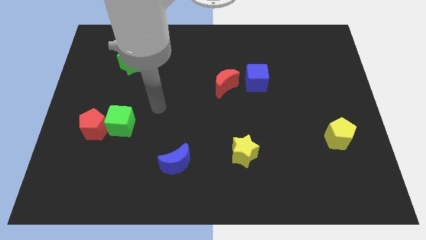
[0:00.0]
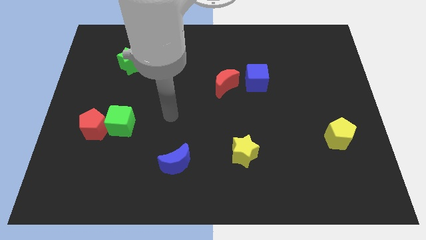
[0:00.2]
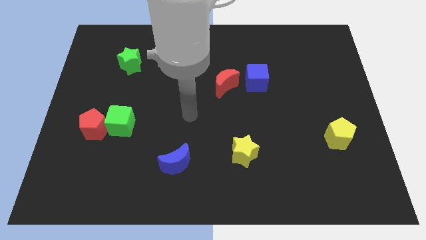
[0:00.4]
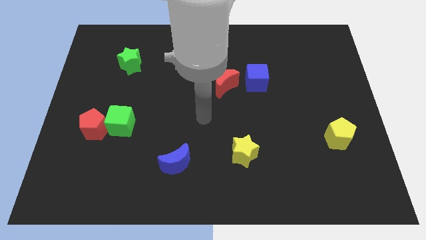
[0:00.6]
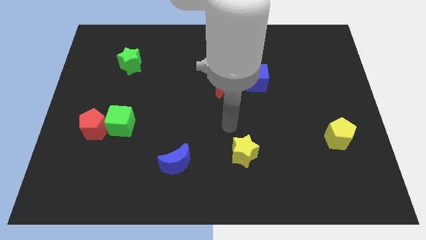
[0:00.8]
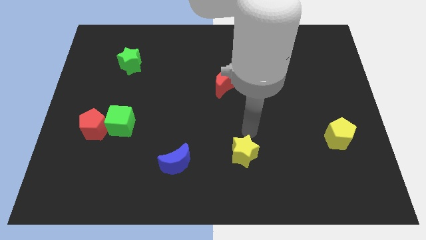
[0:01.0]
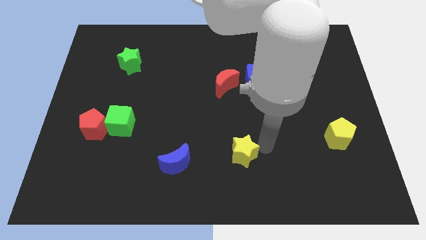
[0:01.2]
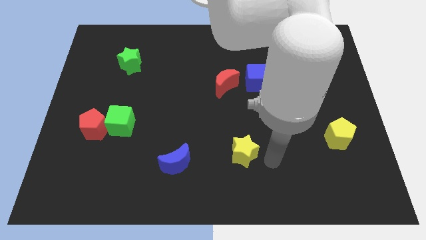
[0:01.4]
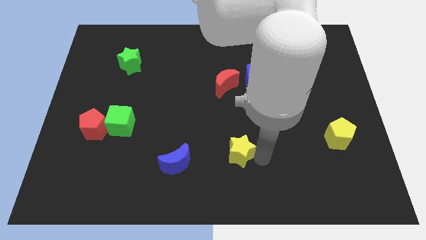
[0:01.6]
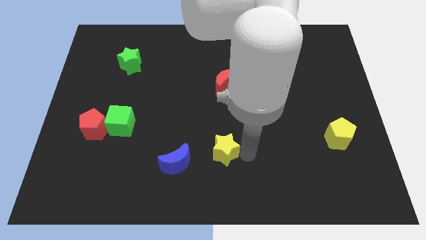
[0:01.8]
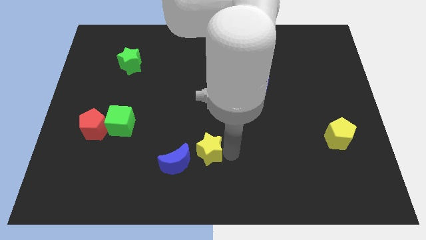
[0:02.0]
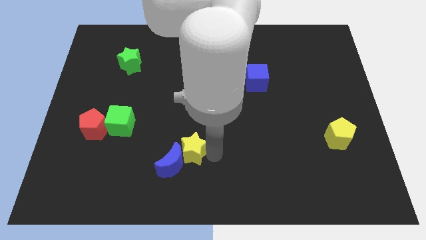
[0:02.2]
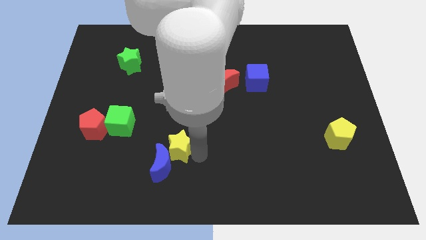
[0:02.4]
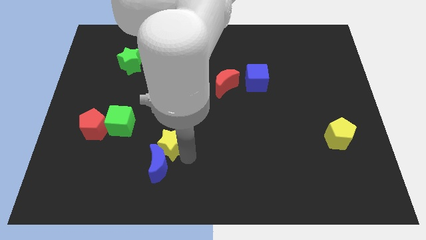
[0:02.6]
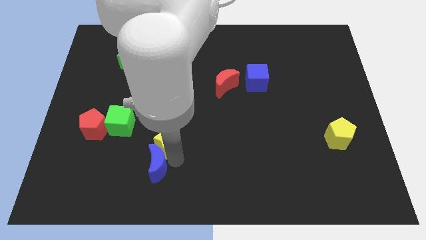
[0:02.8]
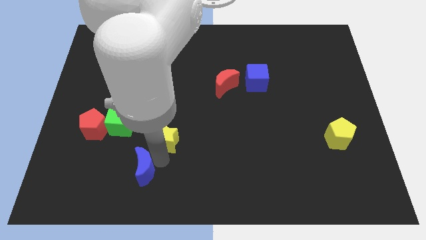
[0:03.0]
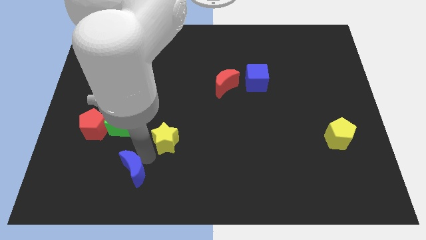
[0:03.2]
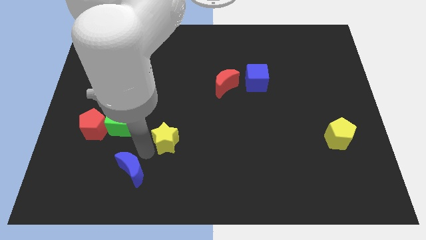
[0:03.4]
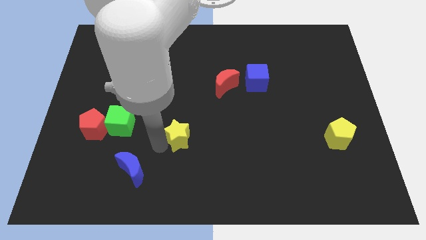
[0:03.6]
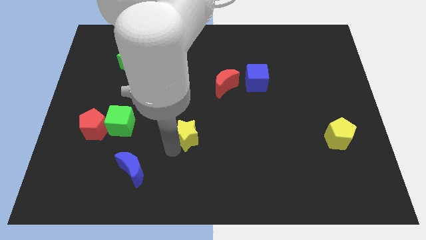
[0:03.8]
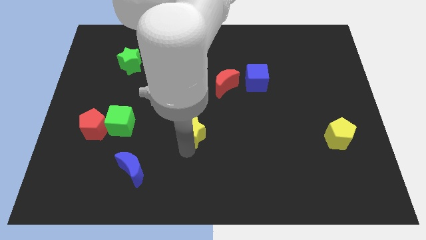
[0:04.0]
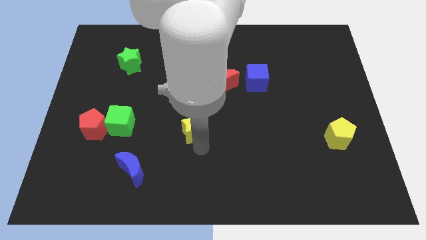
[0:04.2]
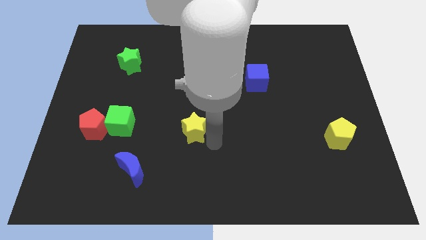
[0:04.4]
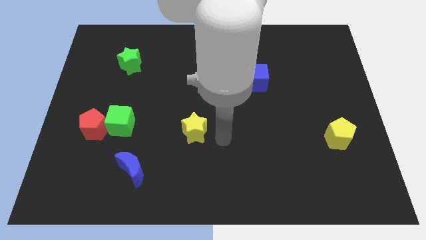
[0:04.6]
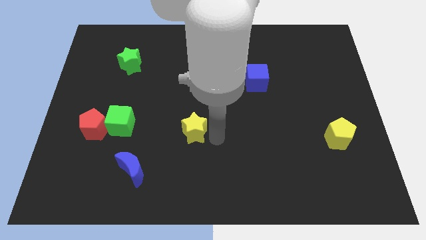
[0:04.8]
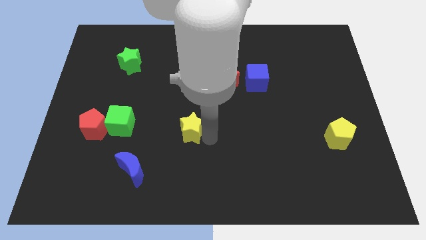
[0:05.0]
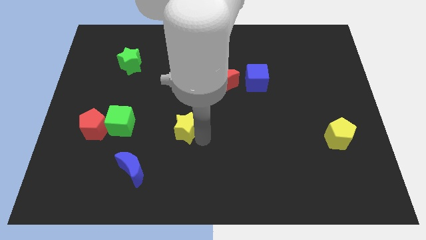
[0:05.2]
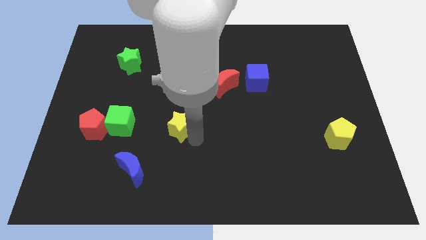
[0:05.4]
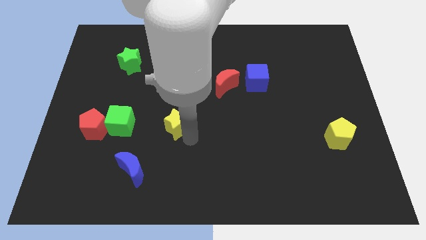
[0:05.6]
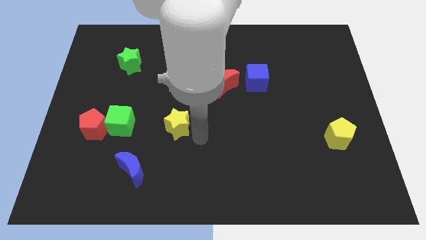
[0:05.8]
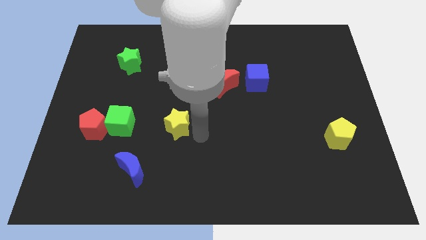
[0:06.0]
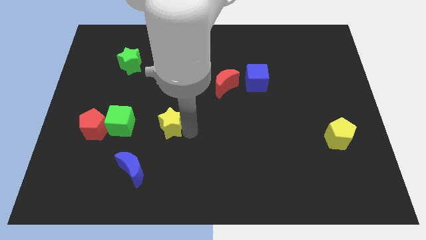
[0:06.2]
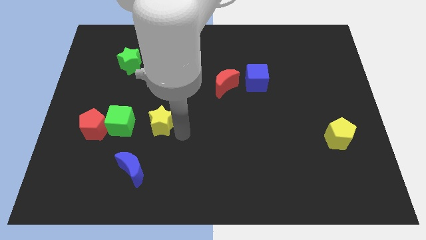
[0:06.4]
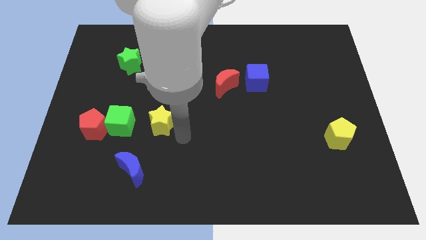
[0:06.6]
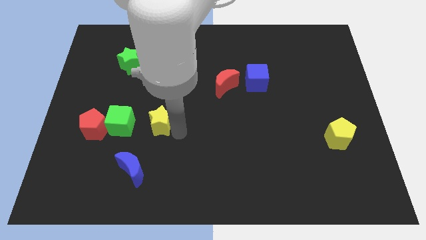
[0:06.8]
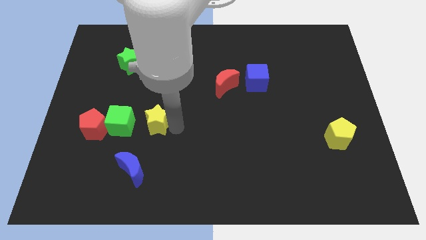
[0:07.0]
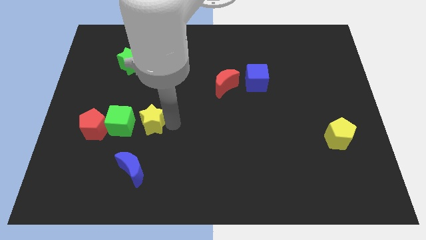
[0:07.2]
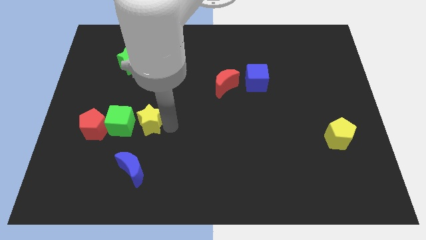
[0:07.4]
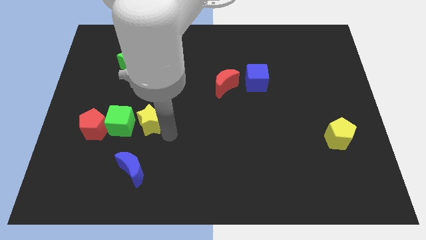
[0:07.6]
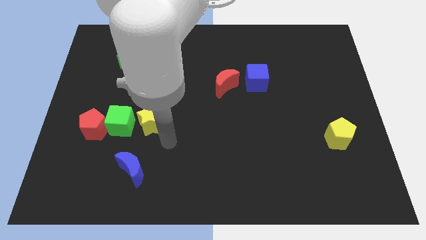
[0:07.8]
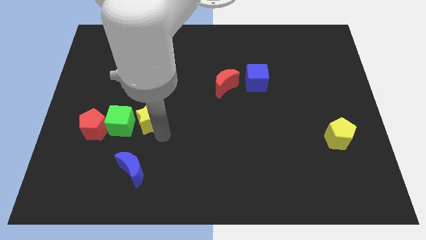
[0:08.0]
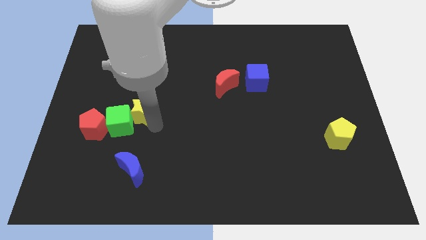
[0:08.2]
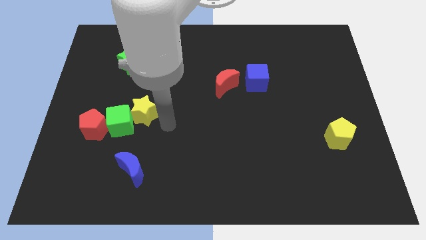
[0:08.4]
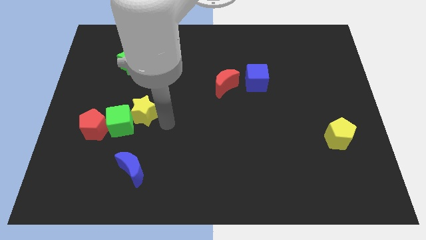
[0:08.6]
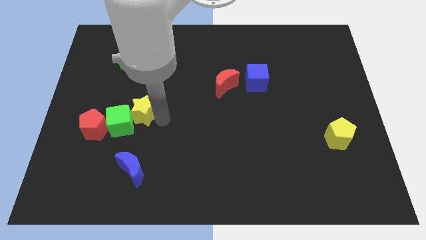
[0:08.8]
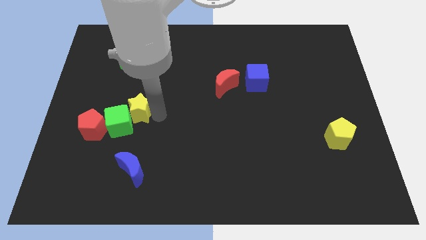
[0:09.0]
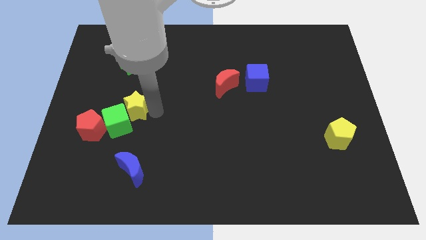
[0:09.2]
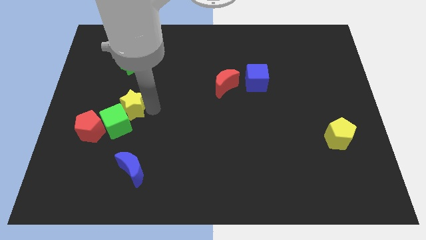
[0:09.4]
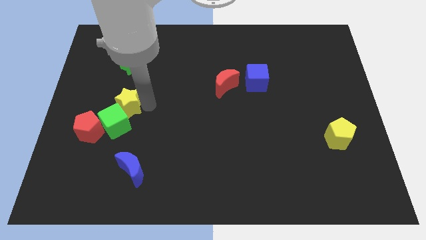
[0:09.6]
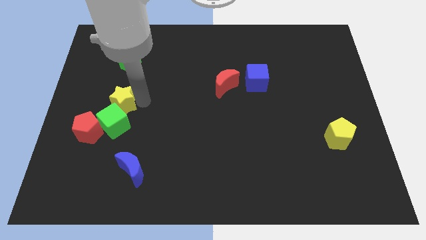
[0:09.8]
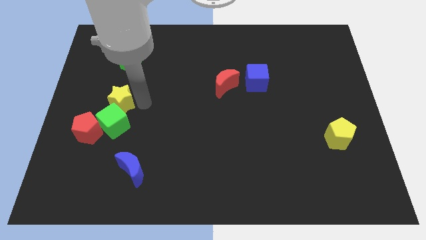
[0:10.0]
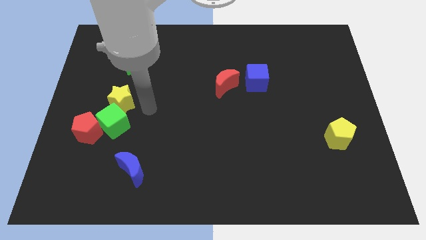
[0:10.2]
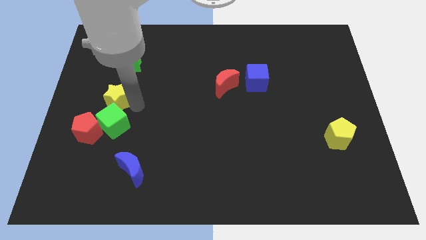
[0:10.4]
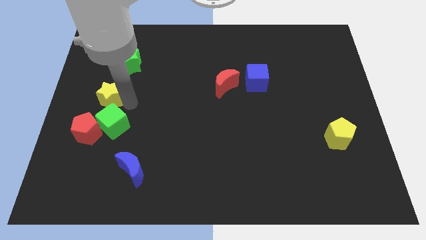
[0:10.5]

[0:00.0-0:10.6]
push the yellow star to the top of the red pentagon

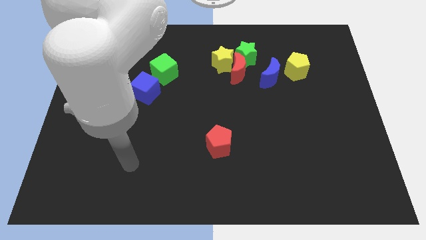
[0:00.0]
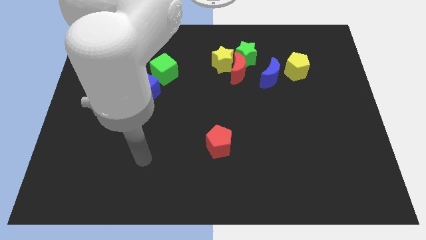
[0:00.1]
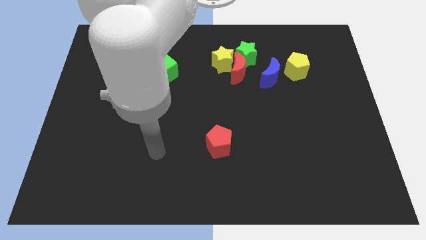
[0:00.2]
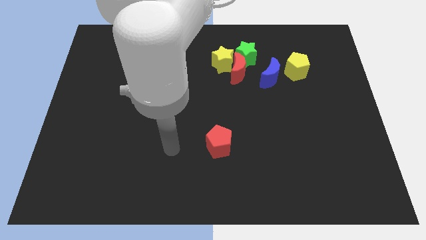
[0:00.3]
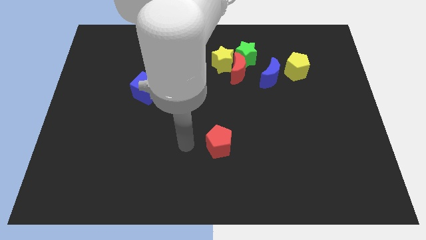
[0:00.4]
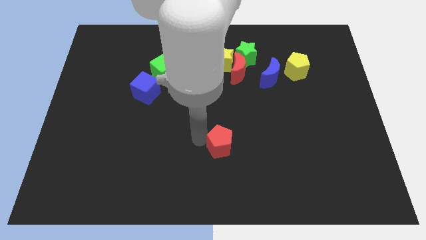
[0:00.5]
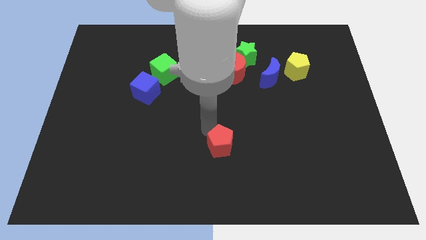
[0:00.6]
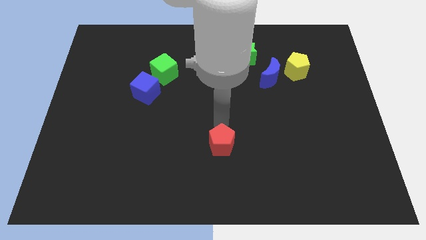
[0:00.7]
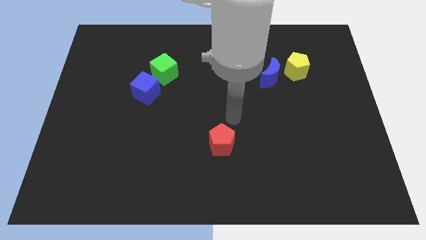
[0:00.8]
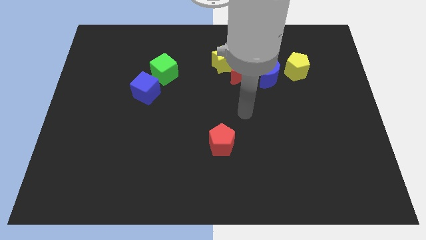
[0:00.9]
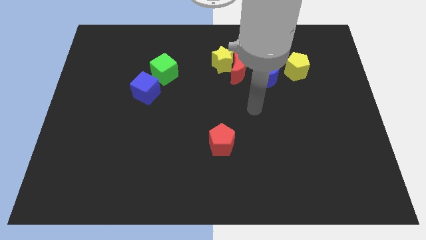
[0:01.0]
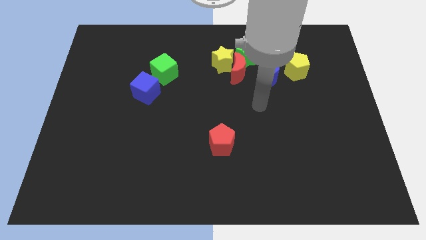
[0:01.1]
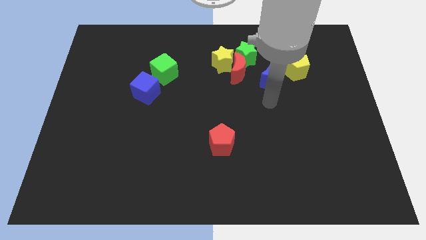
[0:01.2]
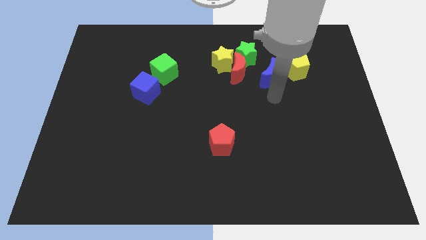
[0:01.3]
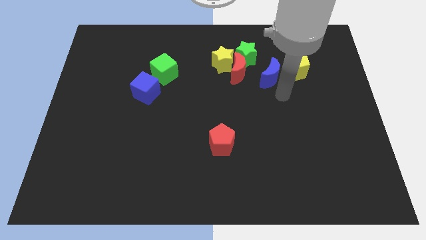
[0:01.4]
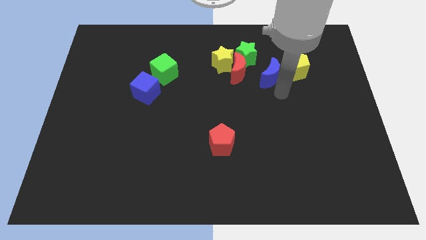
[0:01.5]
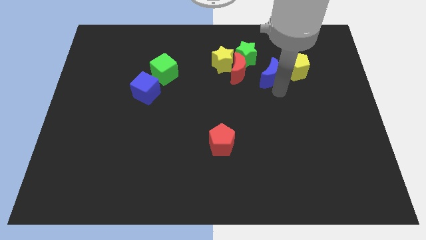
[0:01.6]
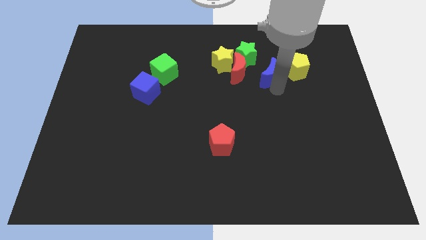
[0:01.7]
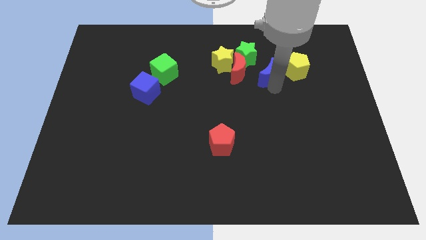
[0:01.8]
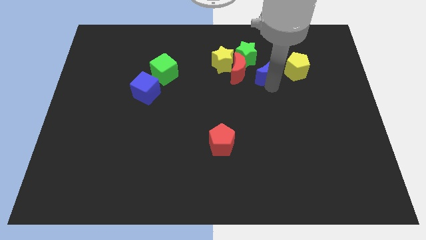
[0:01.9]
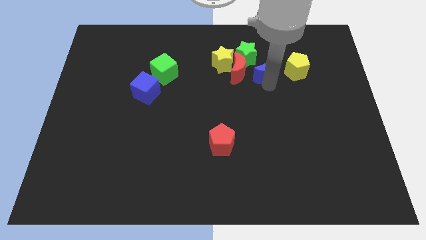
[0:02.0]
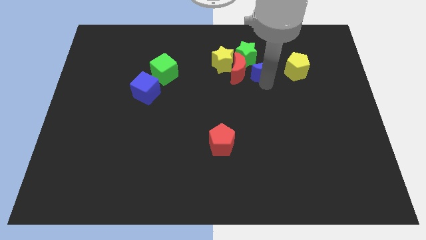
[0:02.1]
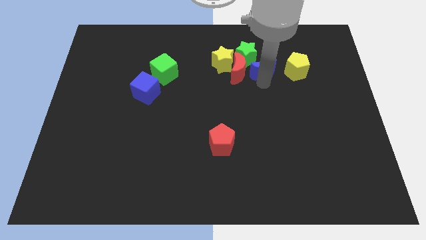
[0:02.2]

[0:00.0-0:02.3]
move the blue moon diagonally up and to the right of the red moon

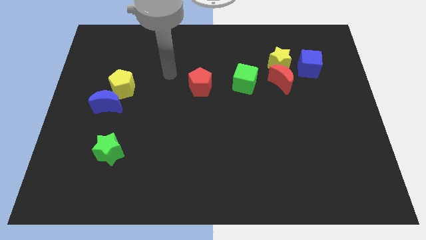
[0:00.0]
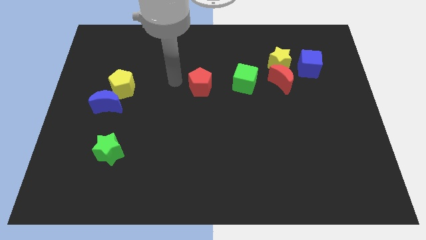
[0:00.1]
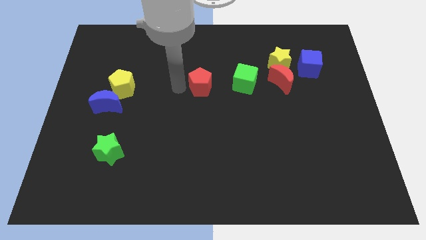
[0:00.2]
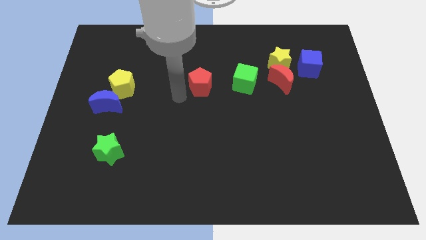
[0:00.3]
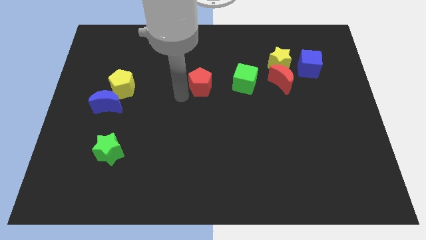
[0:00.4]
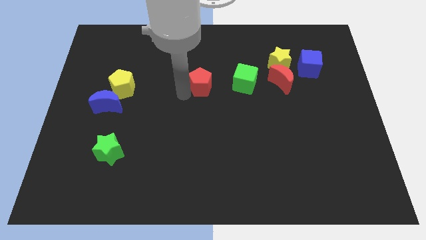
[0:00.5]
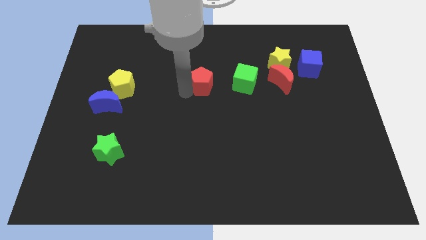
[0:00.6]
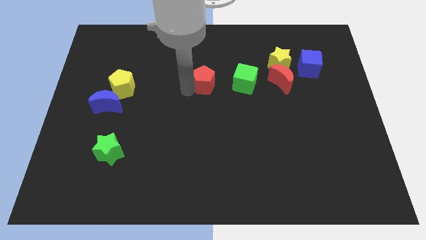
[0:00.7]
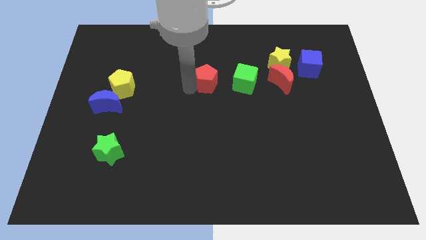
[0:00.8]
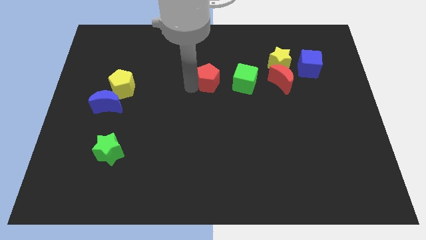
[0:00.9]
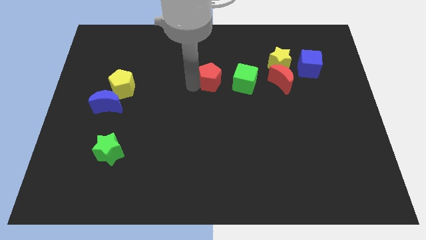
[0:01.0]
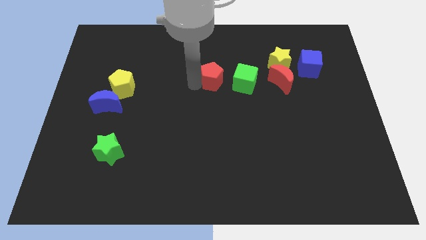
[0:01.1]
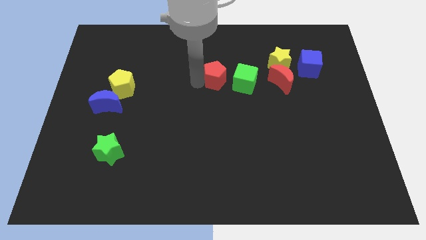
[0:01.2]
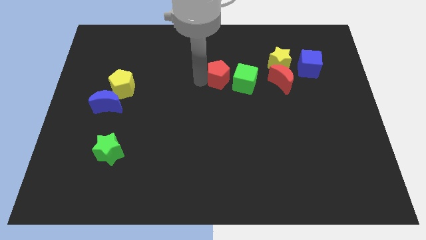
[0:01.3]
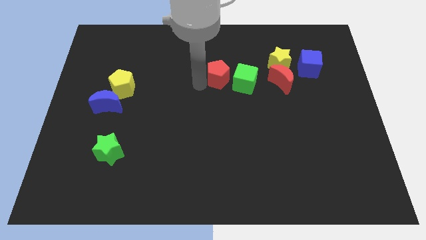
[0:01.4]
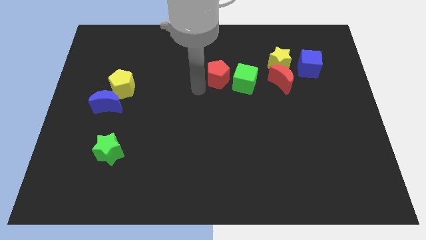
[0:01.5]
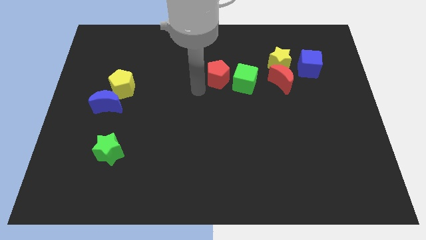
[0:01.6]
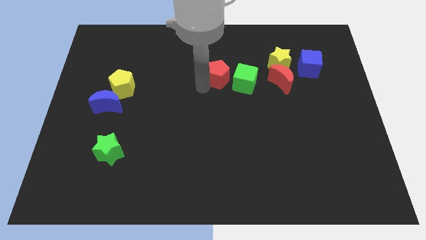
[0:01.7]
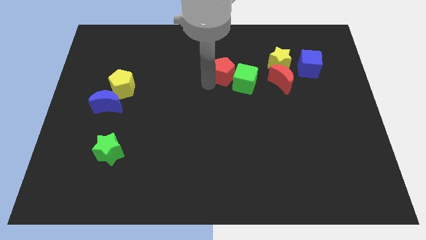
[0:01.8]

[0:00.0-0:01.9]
push the red pentagon to the left of the yellow star
